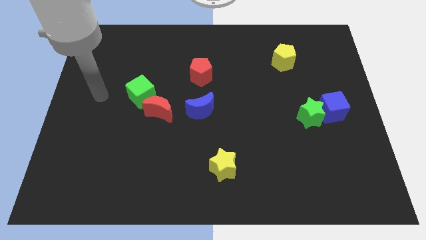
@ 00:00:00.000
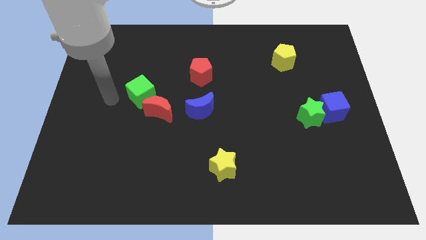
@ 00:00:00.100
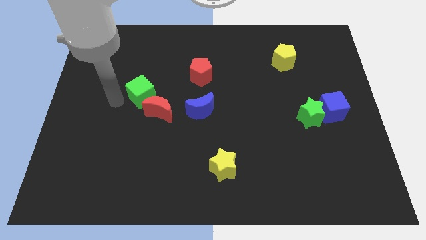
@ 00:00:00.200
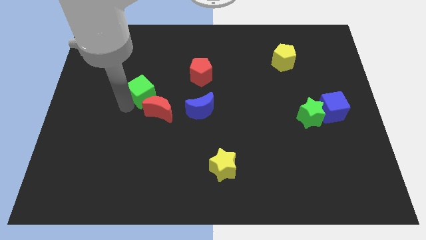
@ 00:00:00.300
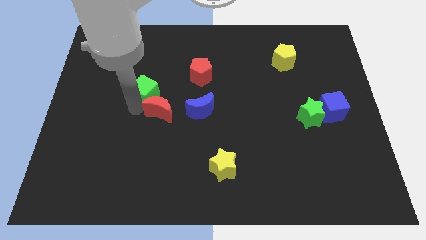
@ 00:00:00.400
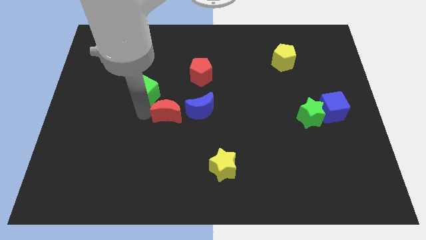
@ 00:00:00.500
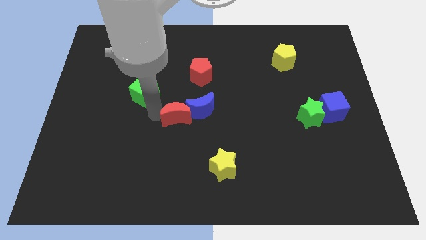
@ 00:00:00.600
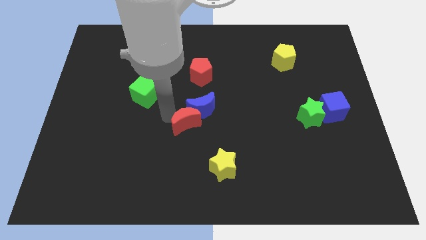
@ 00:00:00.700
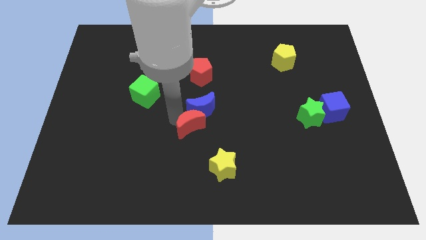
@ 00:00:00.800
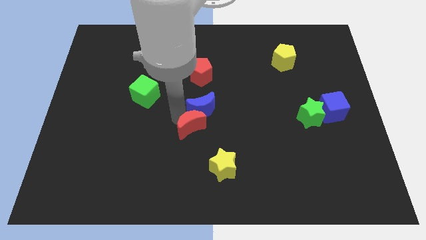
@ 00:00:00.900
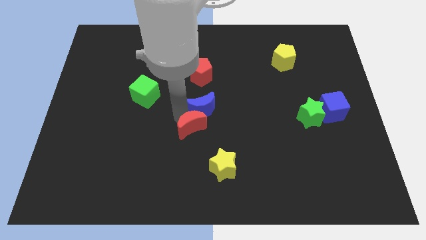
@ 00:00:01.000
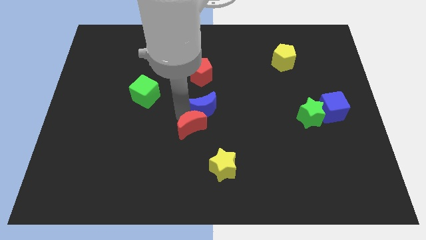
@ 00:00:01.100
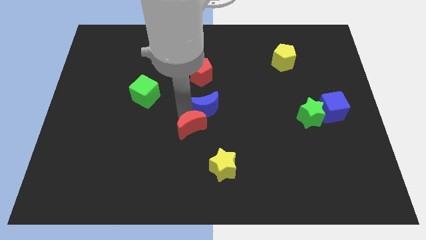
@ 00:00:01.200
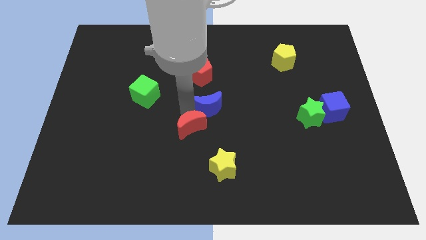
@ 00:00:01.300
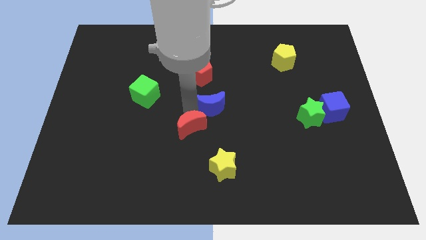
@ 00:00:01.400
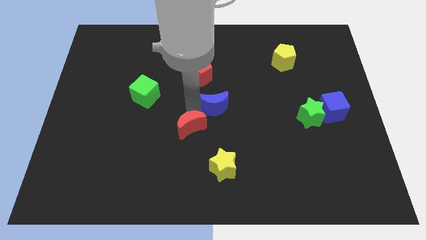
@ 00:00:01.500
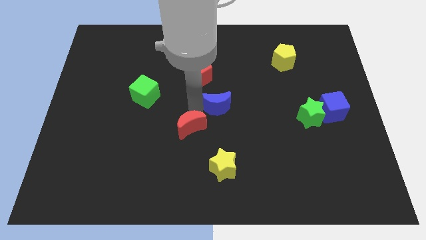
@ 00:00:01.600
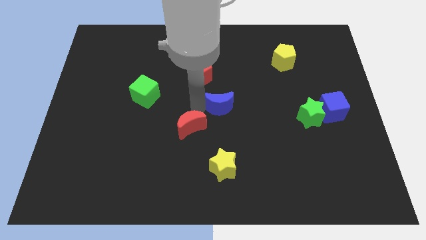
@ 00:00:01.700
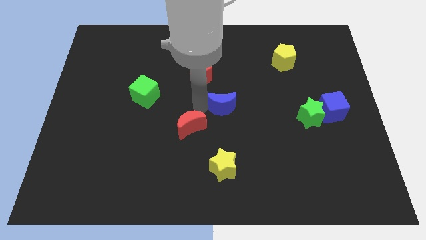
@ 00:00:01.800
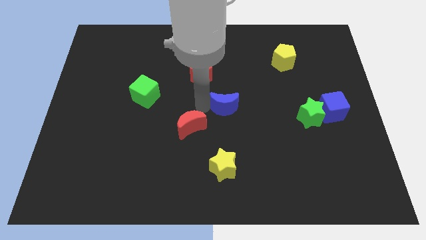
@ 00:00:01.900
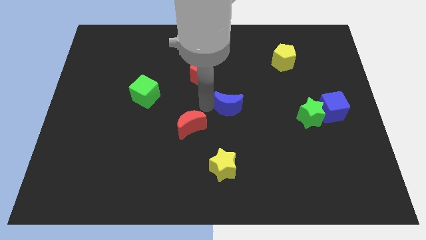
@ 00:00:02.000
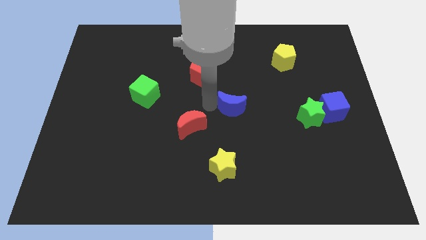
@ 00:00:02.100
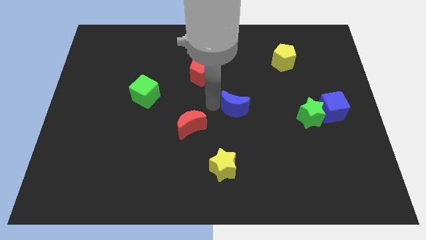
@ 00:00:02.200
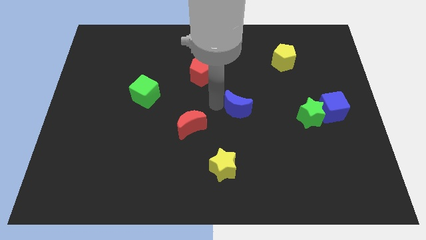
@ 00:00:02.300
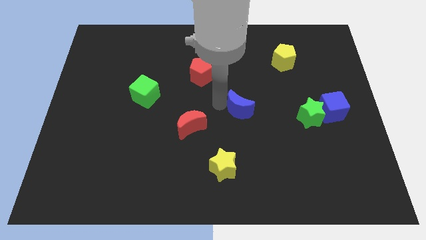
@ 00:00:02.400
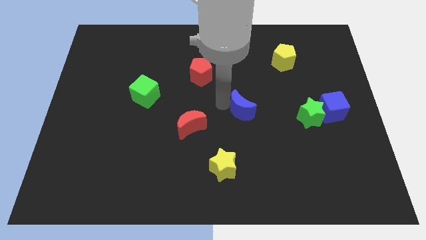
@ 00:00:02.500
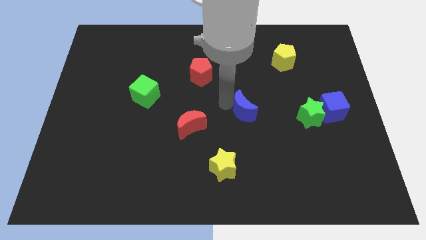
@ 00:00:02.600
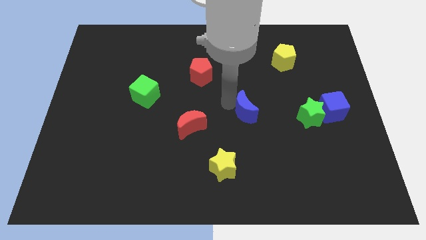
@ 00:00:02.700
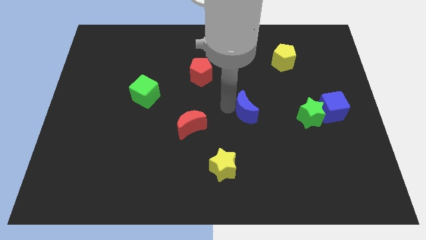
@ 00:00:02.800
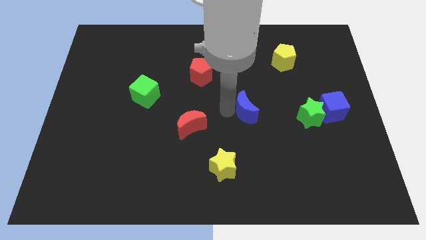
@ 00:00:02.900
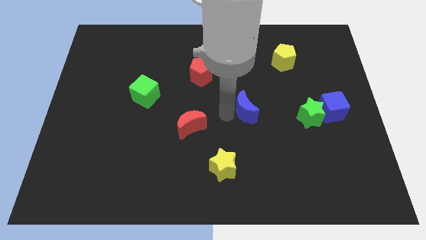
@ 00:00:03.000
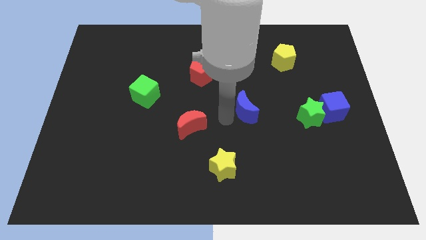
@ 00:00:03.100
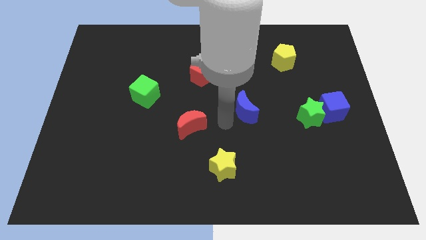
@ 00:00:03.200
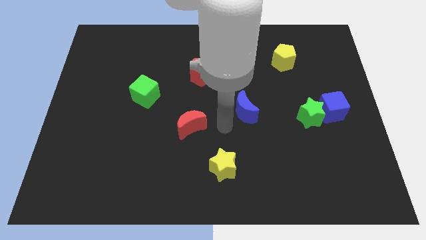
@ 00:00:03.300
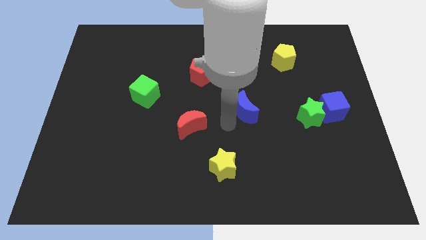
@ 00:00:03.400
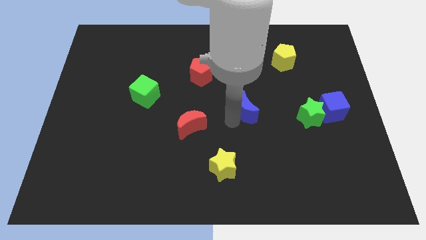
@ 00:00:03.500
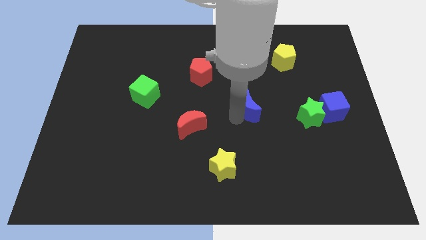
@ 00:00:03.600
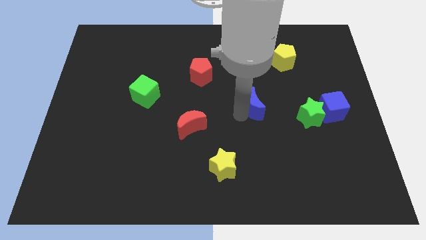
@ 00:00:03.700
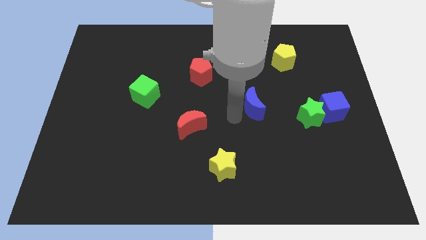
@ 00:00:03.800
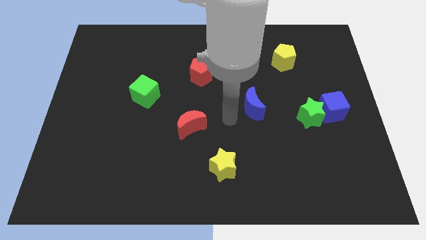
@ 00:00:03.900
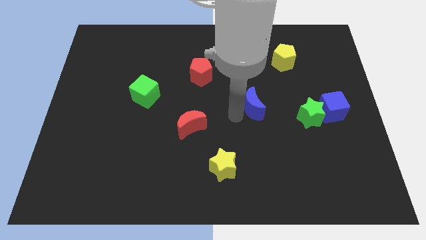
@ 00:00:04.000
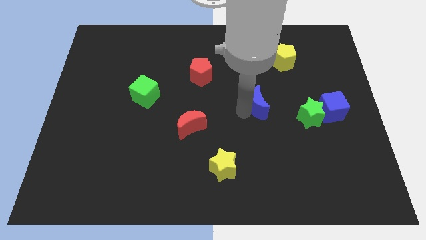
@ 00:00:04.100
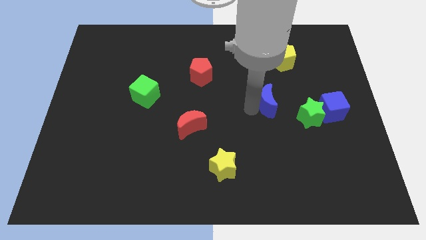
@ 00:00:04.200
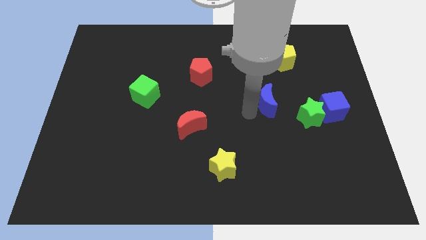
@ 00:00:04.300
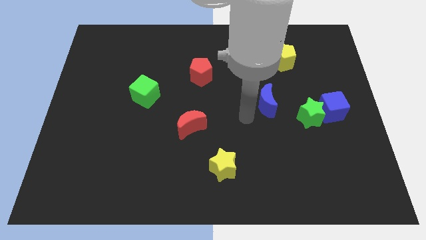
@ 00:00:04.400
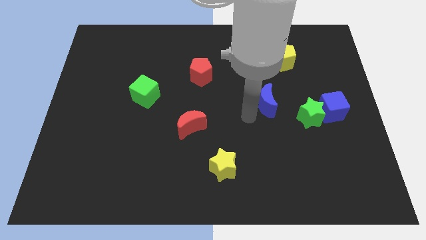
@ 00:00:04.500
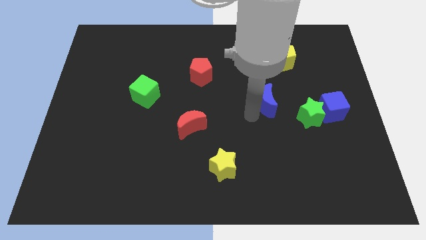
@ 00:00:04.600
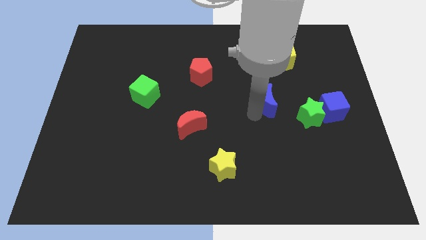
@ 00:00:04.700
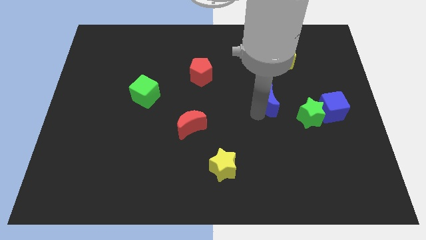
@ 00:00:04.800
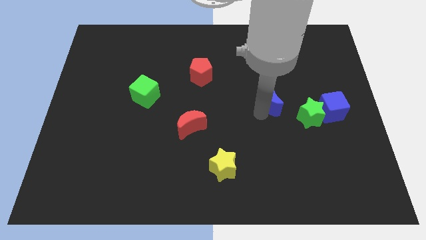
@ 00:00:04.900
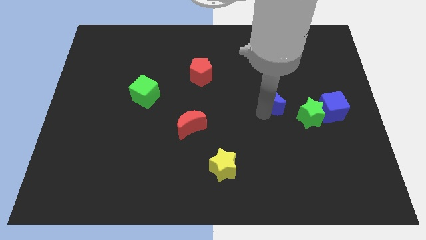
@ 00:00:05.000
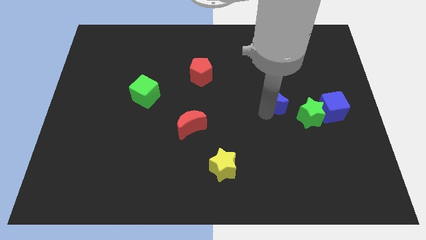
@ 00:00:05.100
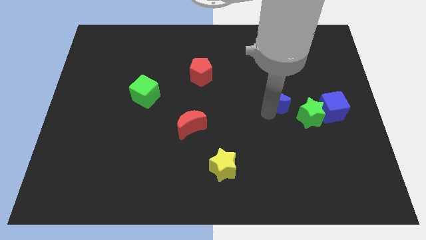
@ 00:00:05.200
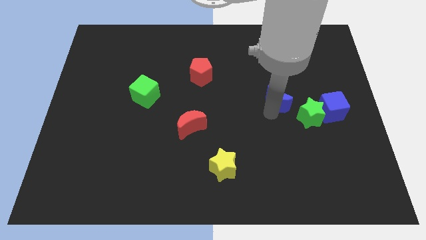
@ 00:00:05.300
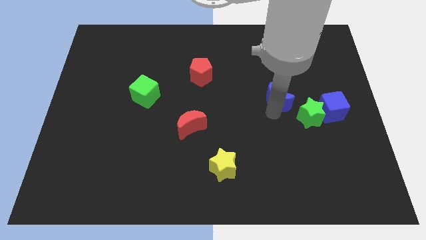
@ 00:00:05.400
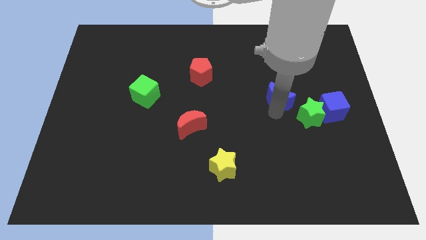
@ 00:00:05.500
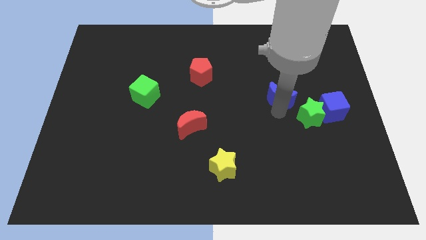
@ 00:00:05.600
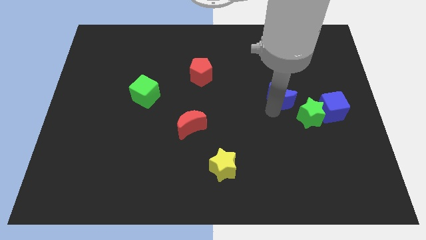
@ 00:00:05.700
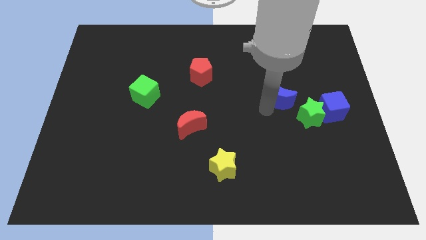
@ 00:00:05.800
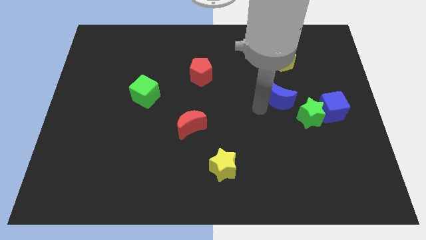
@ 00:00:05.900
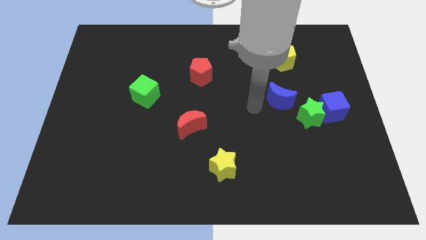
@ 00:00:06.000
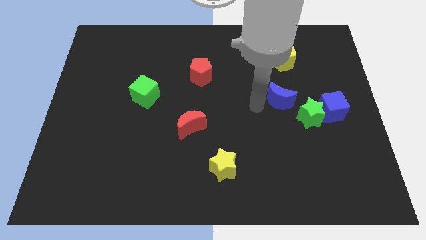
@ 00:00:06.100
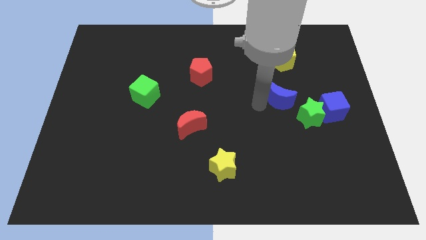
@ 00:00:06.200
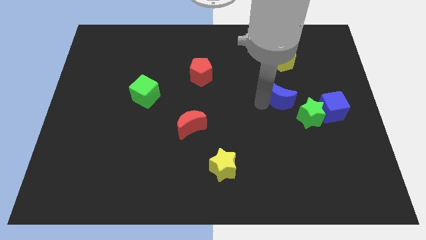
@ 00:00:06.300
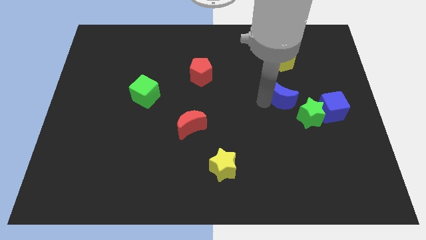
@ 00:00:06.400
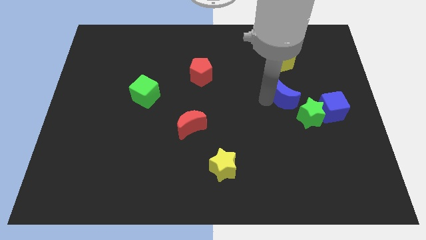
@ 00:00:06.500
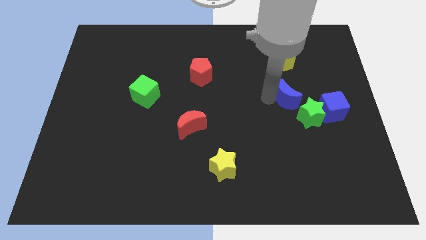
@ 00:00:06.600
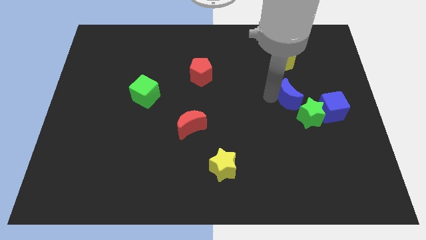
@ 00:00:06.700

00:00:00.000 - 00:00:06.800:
push the blue moon to the top left of the blue cube
